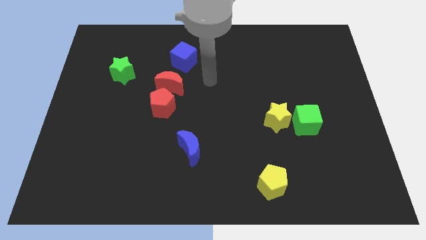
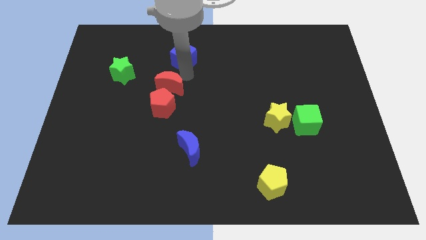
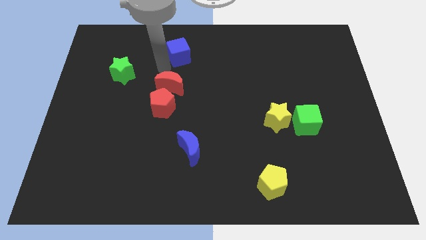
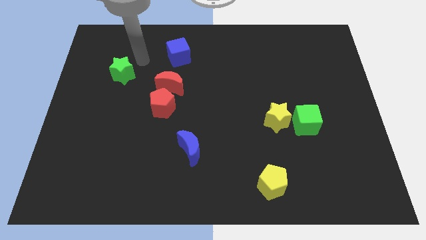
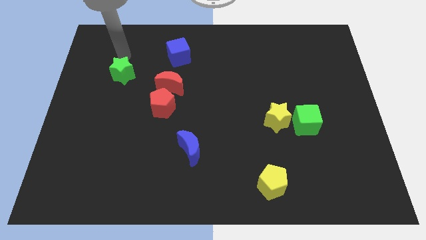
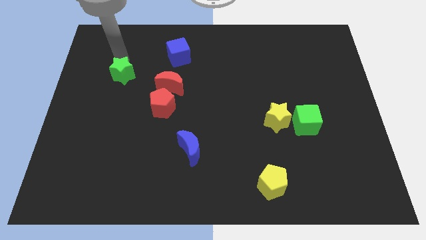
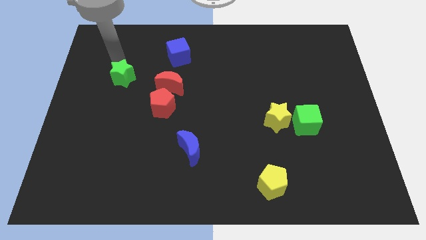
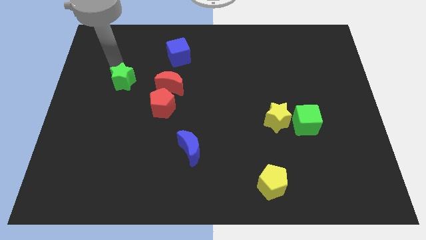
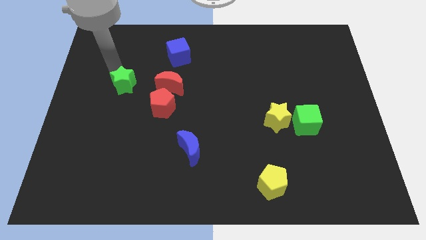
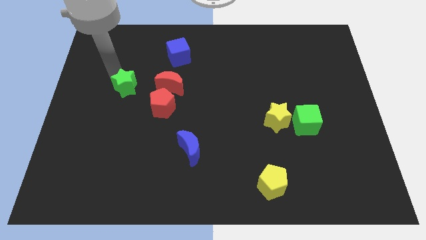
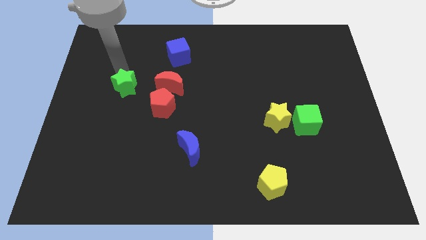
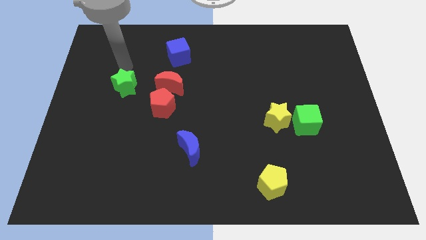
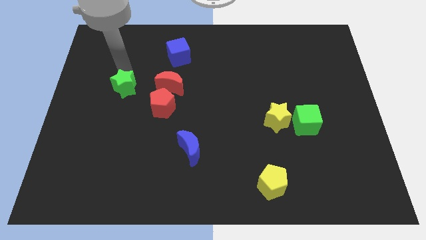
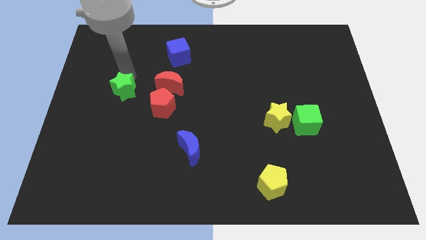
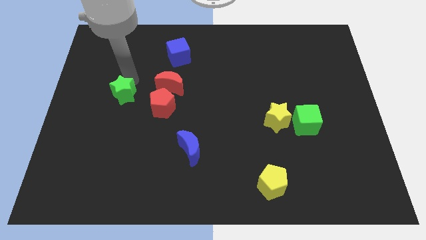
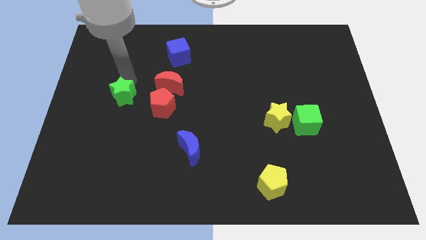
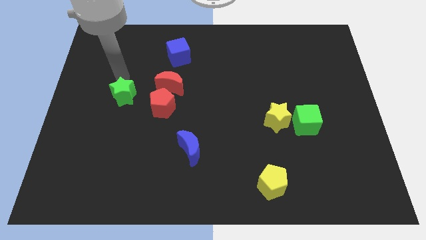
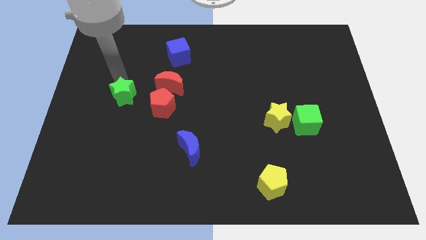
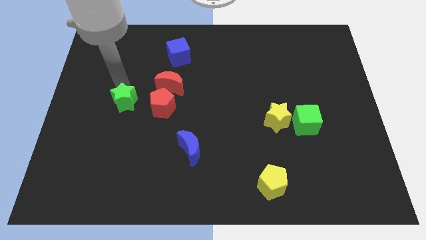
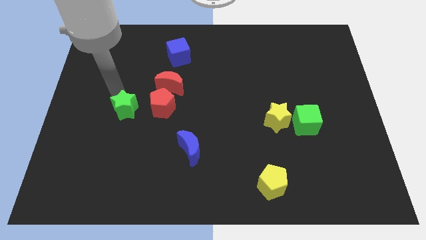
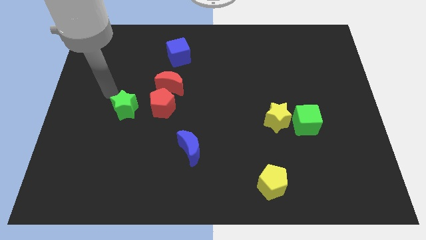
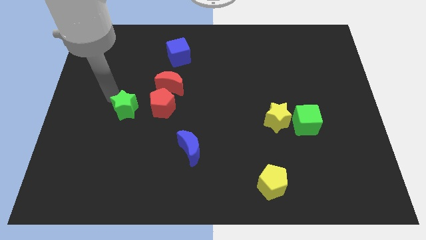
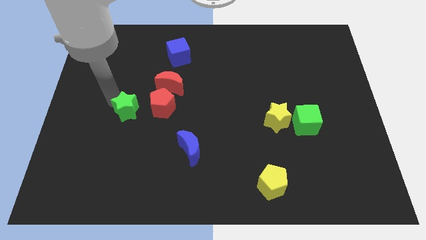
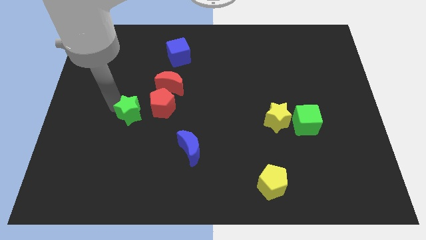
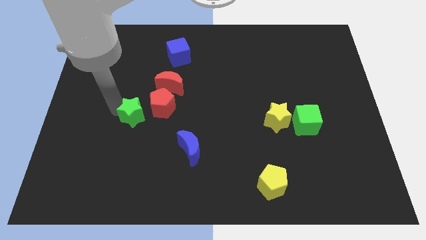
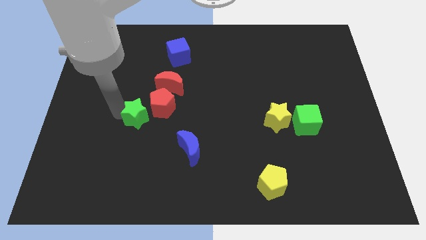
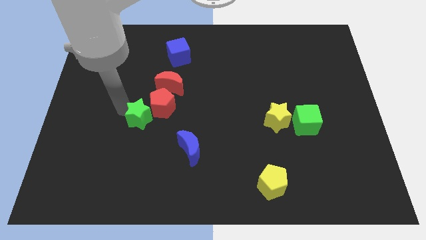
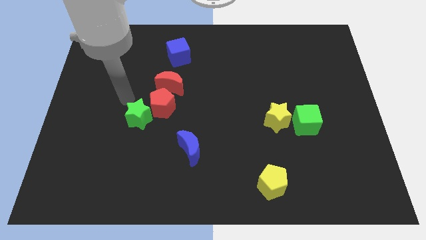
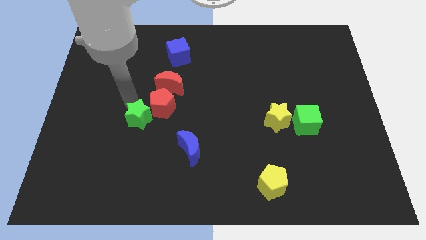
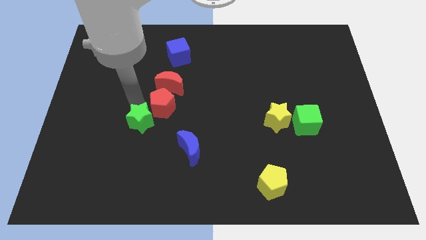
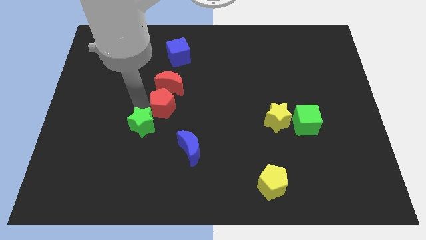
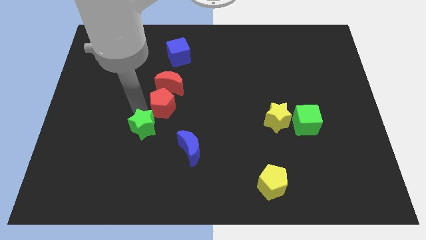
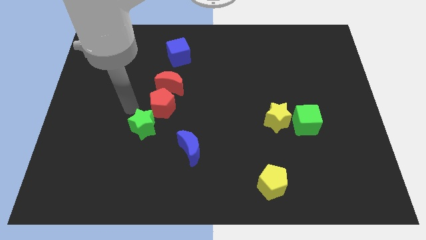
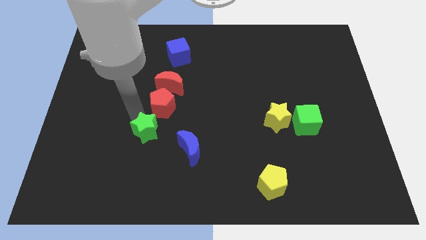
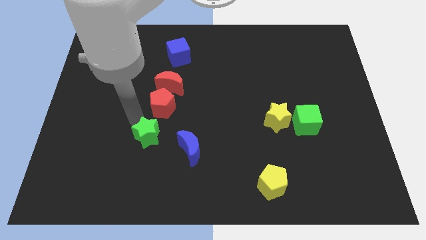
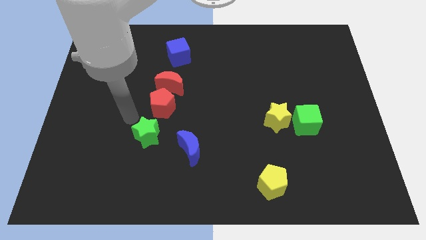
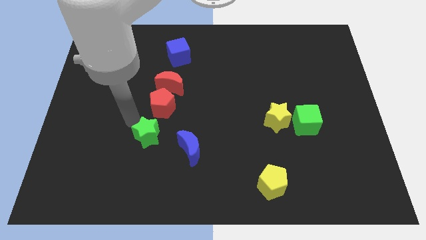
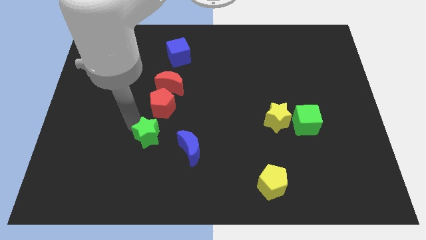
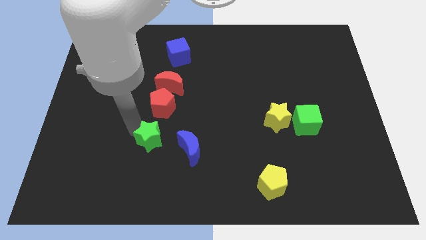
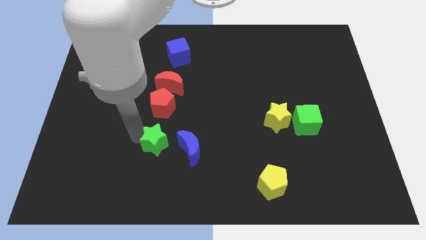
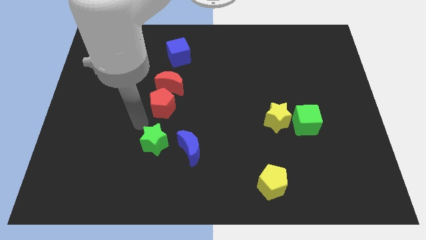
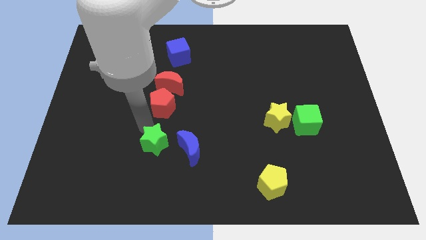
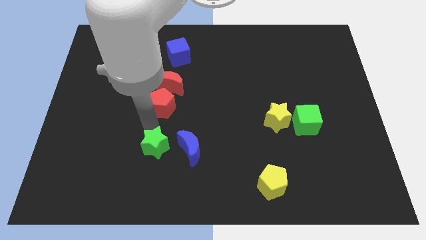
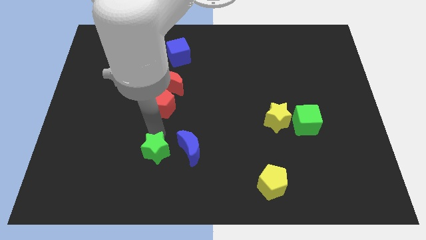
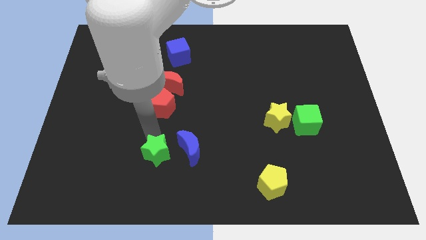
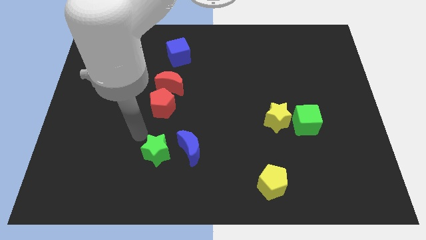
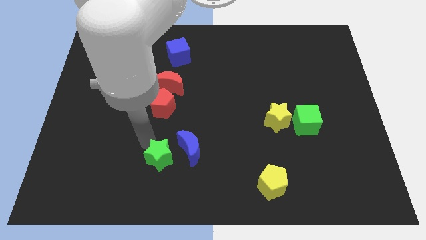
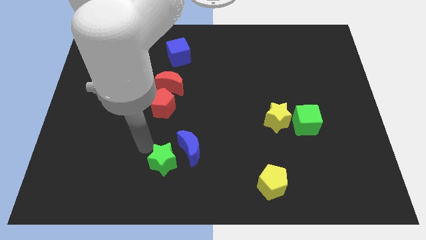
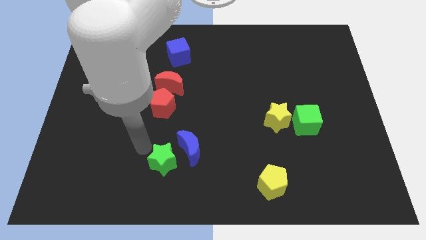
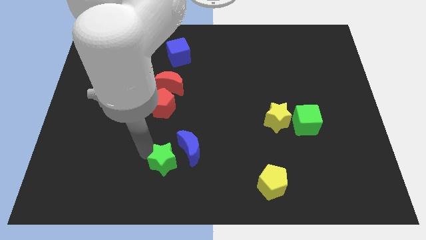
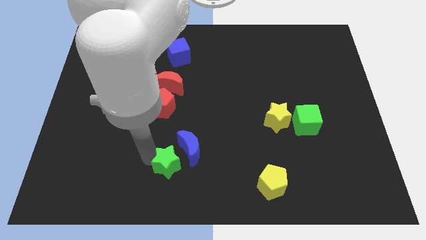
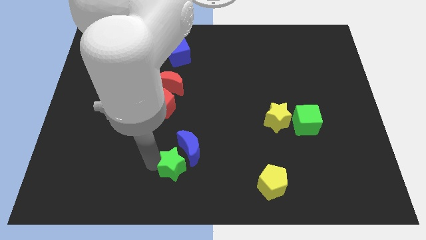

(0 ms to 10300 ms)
slide the green star to the bottom side

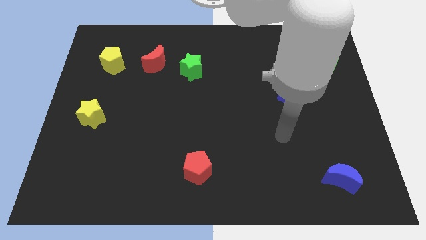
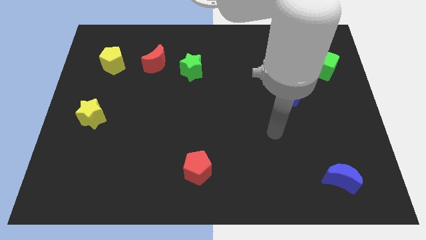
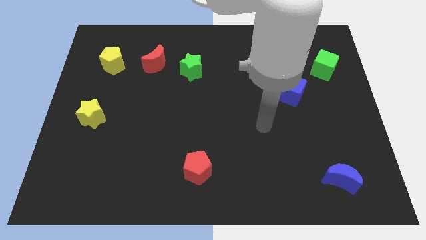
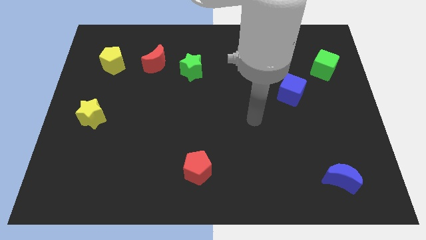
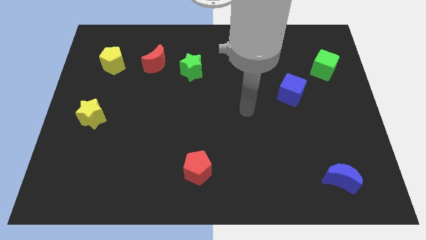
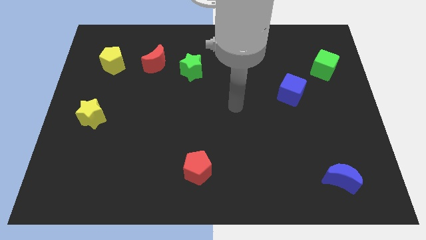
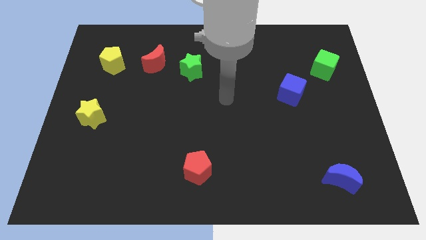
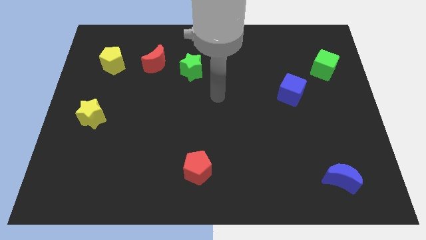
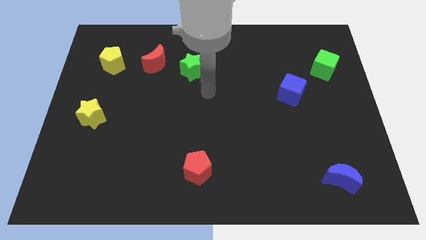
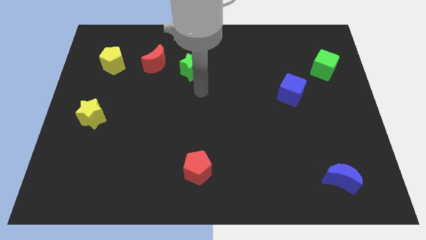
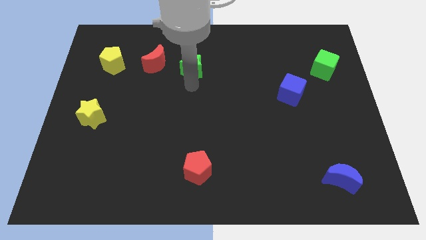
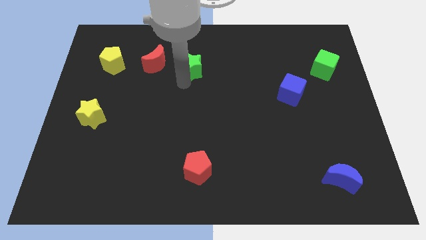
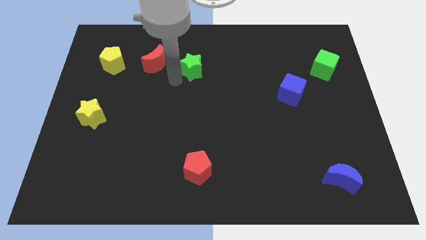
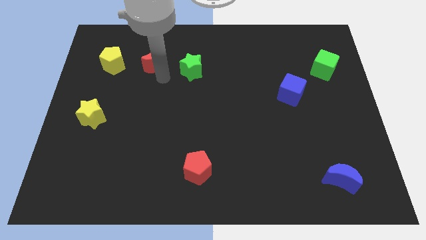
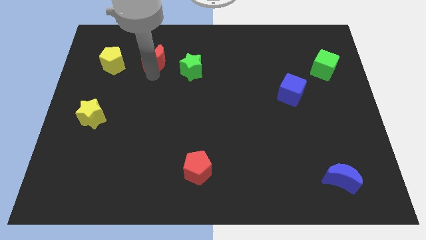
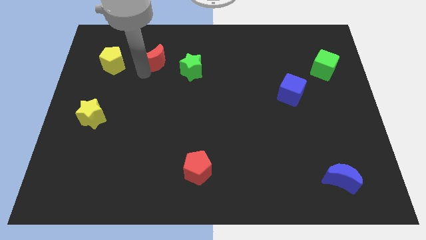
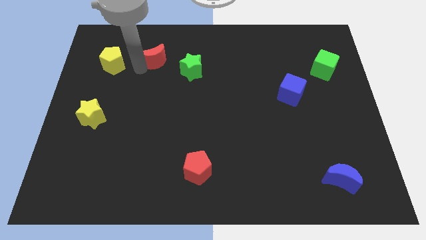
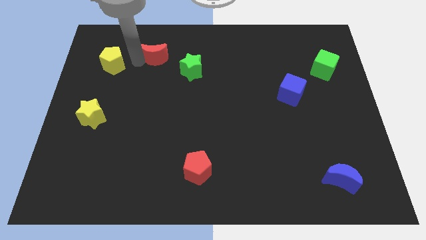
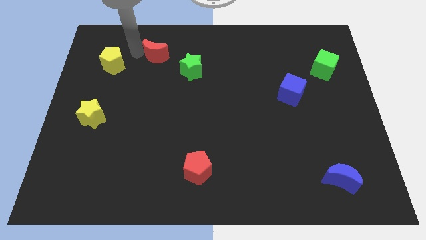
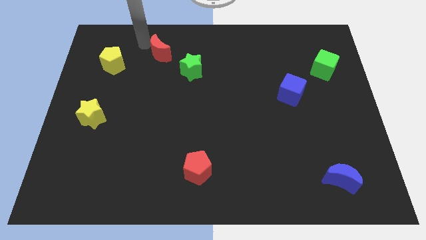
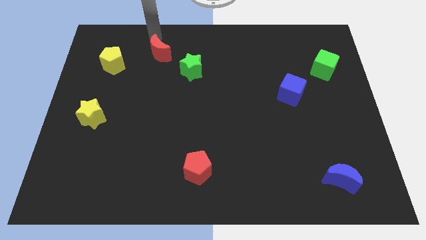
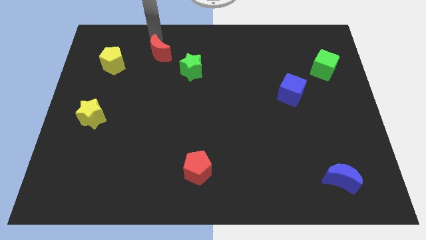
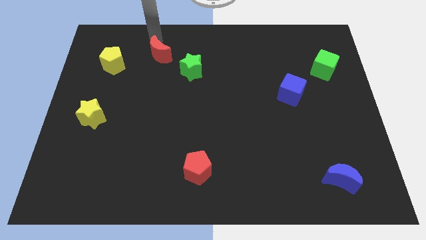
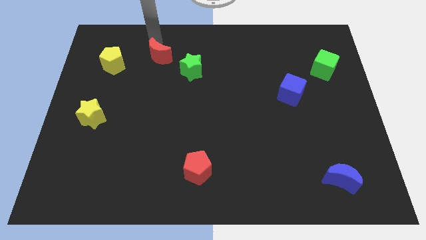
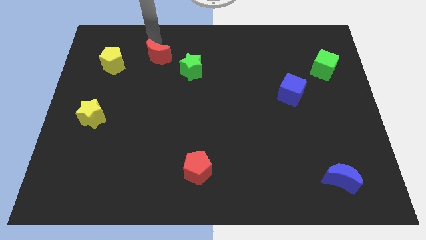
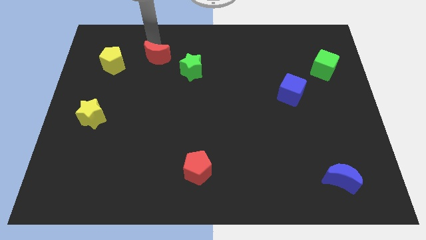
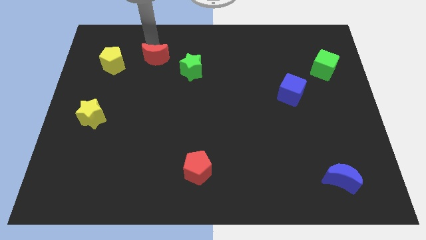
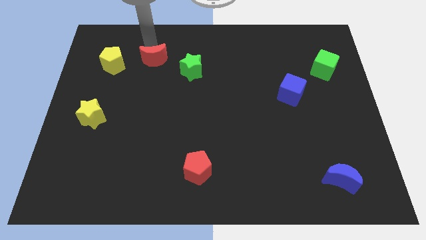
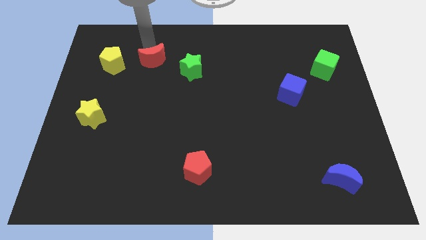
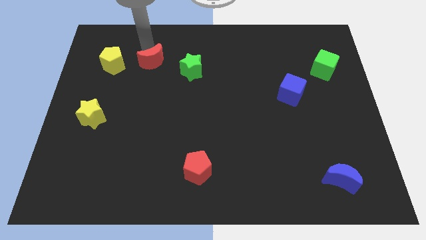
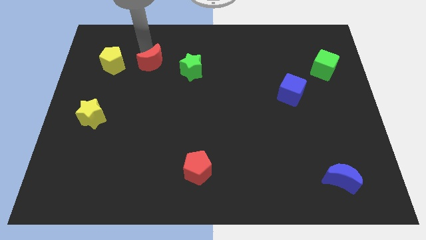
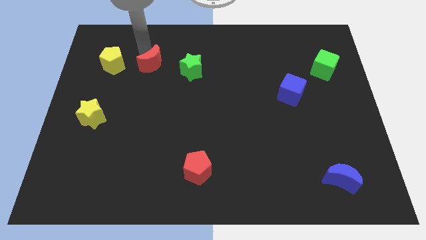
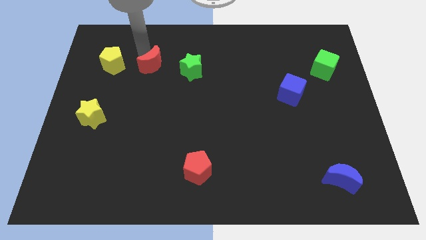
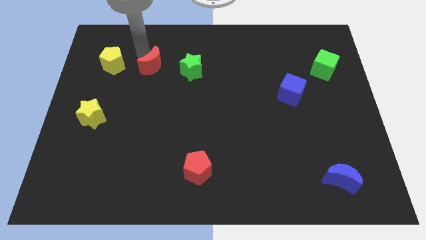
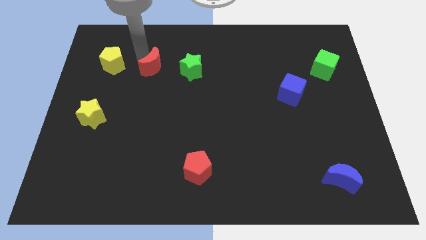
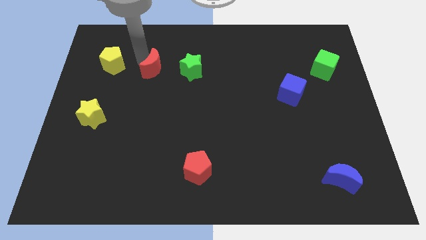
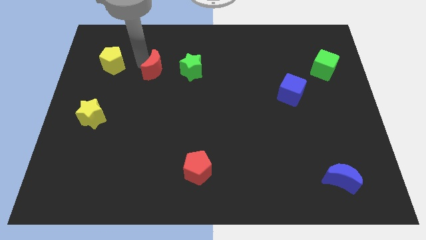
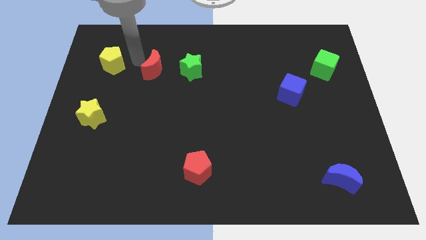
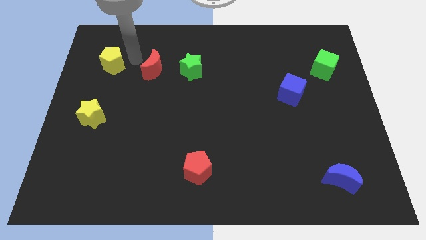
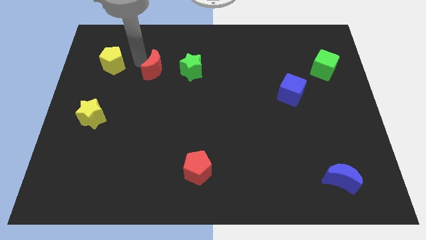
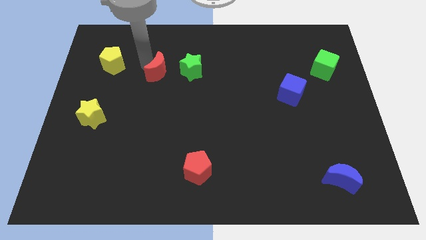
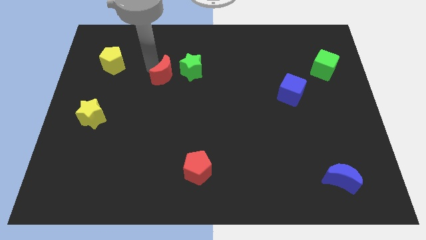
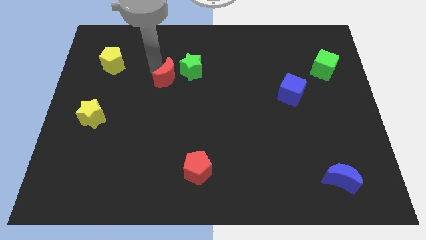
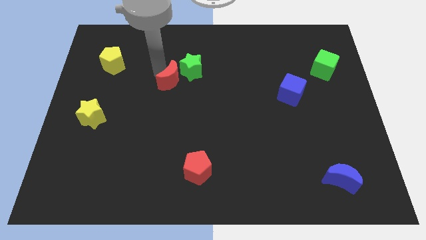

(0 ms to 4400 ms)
put the red moon to the center of the board
